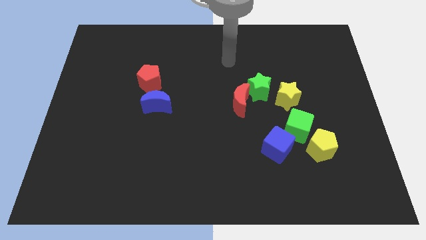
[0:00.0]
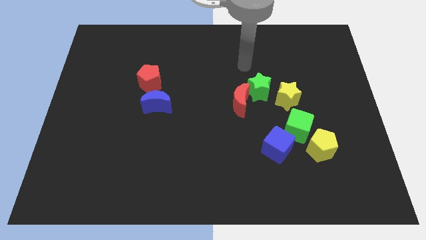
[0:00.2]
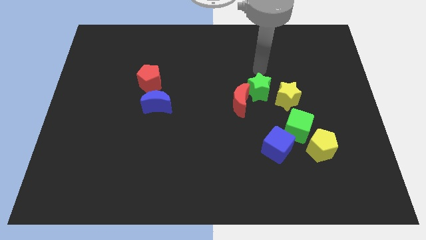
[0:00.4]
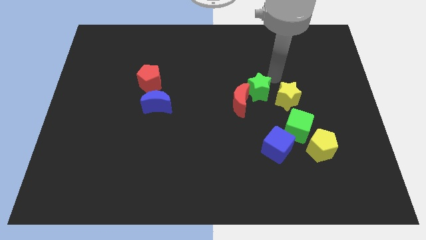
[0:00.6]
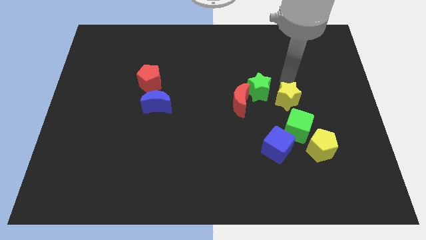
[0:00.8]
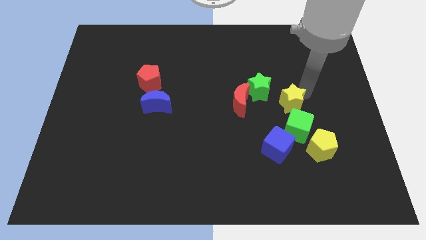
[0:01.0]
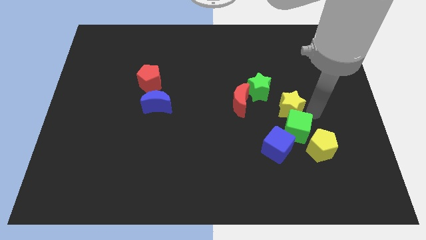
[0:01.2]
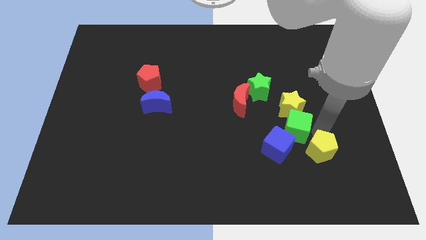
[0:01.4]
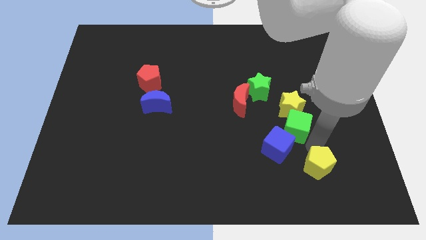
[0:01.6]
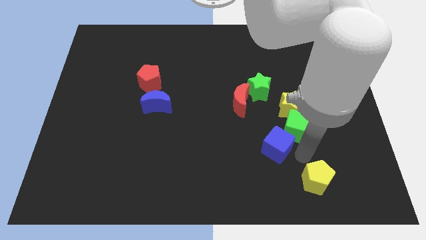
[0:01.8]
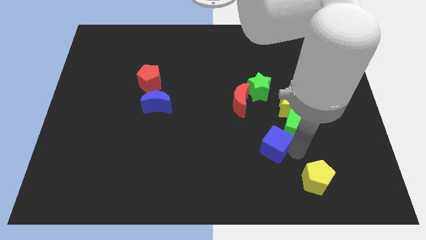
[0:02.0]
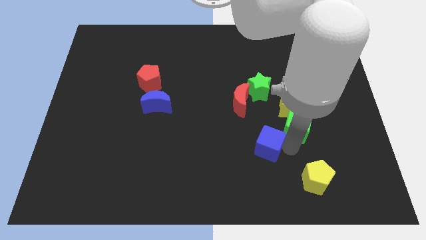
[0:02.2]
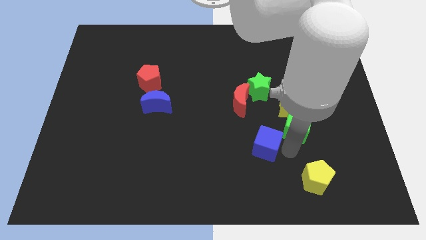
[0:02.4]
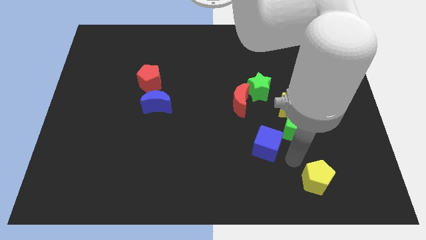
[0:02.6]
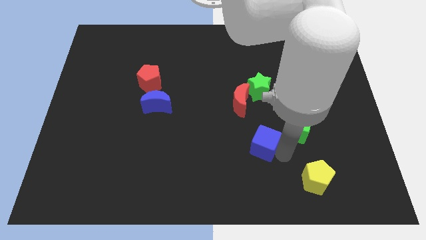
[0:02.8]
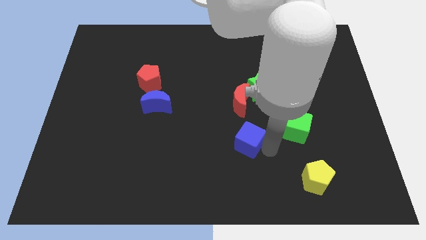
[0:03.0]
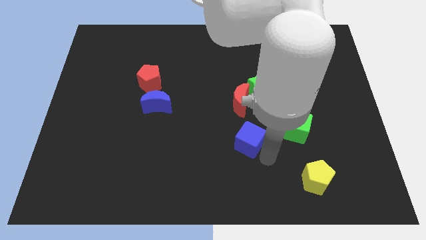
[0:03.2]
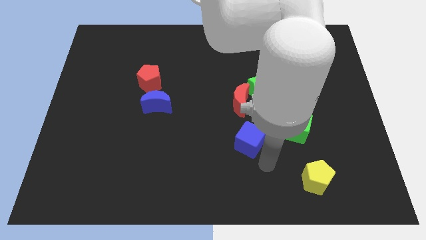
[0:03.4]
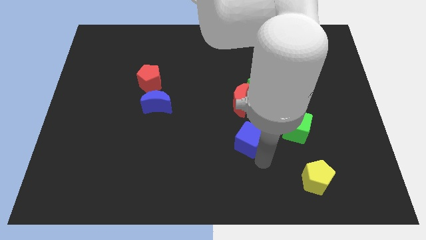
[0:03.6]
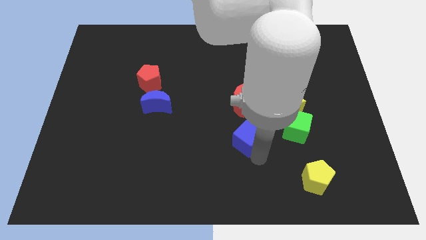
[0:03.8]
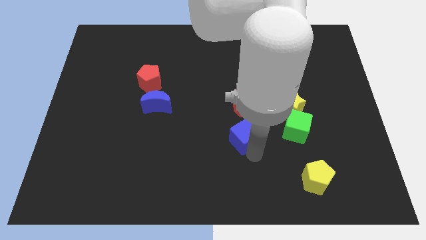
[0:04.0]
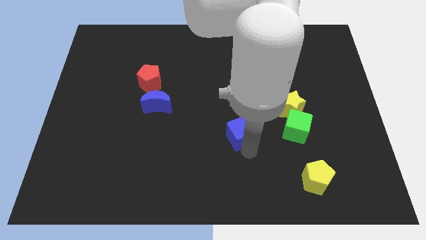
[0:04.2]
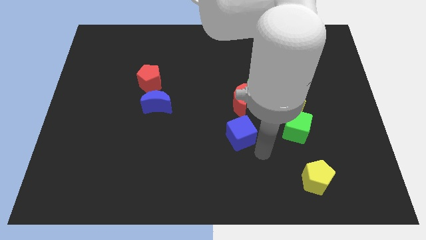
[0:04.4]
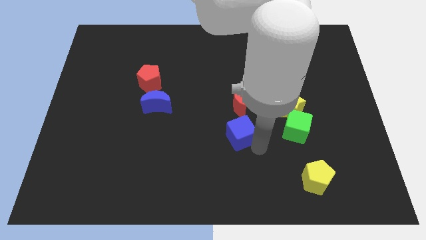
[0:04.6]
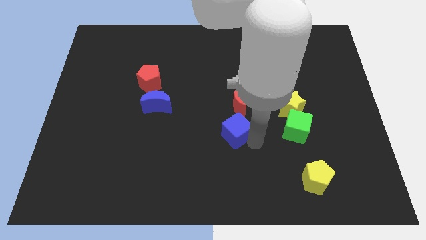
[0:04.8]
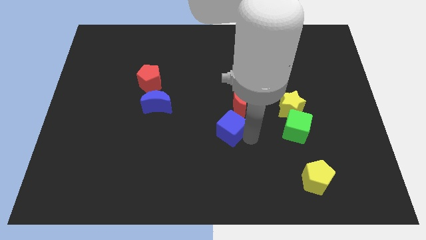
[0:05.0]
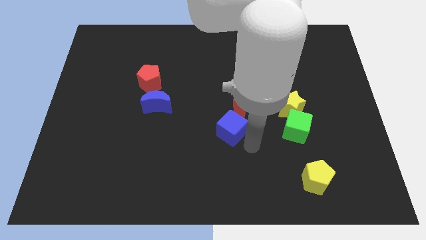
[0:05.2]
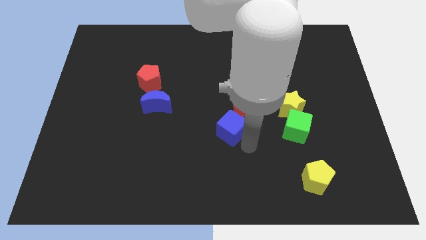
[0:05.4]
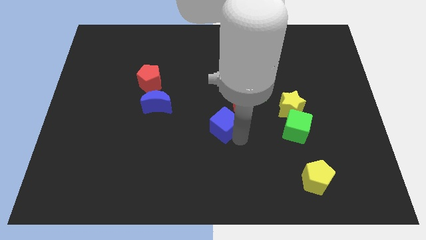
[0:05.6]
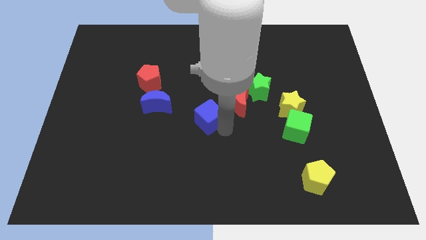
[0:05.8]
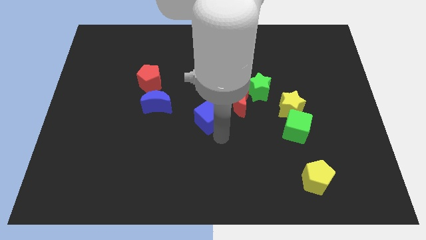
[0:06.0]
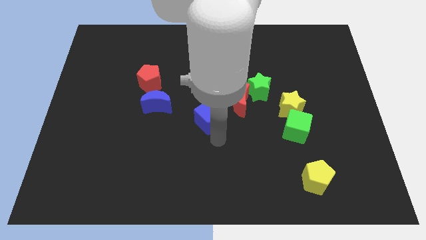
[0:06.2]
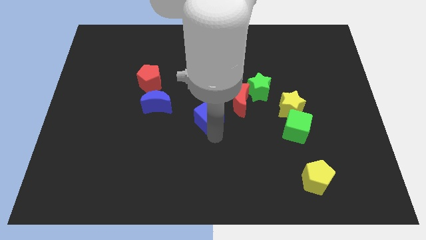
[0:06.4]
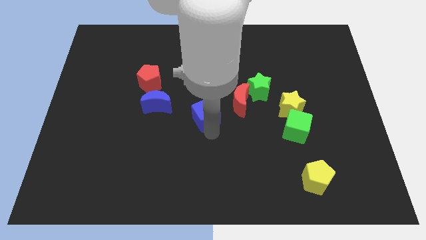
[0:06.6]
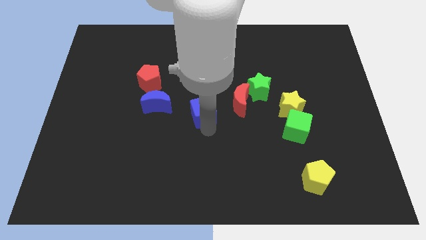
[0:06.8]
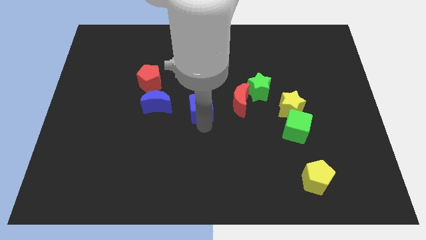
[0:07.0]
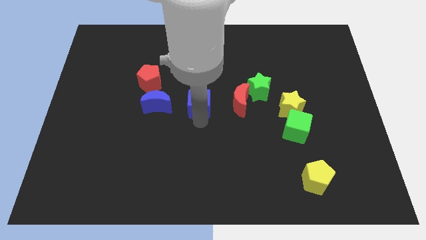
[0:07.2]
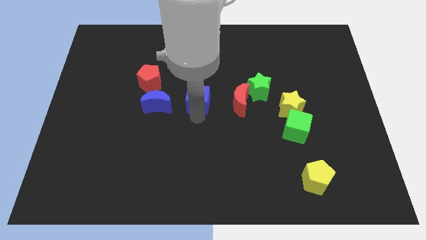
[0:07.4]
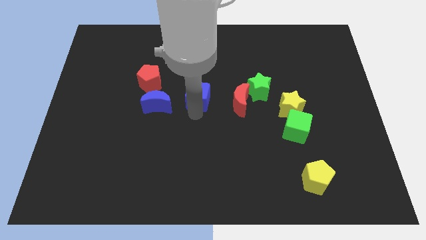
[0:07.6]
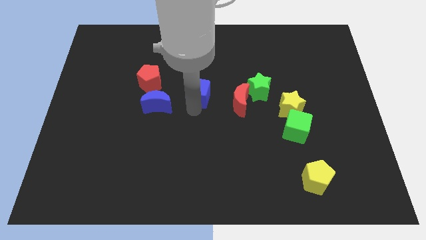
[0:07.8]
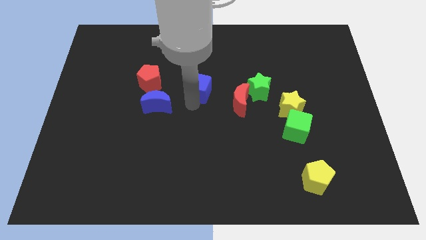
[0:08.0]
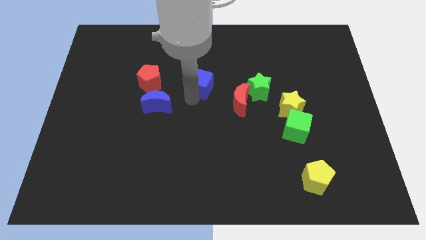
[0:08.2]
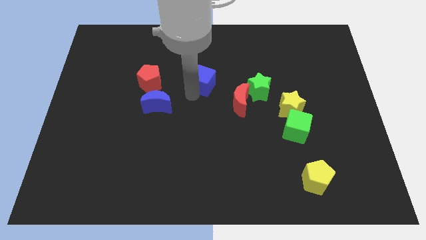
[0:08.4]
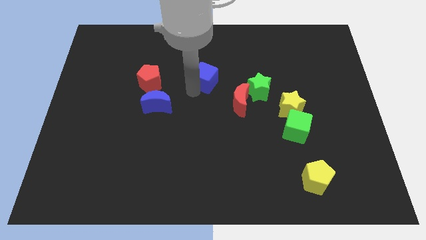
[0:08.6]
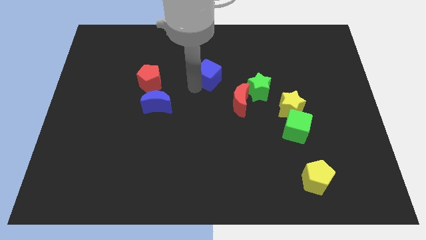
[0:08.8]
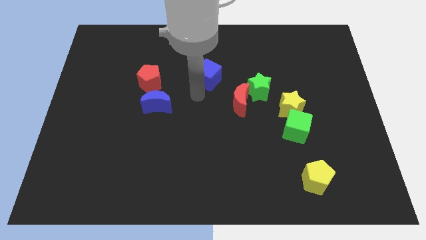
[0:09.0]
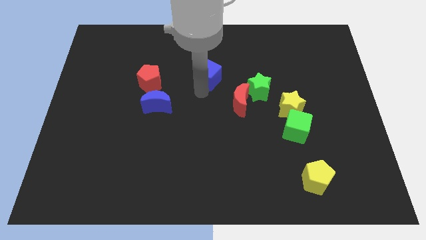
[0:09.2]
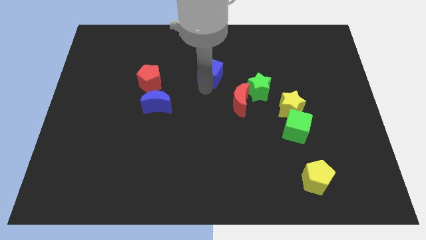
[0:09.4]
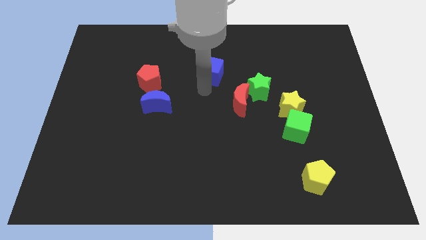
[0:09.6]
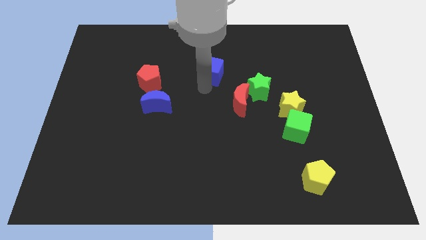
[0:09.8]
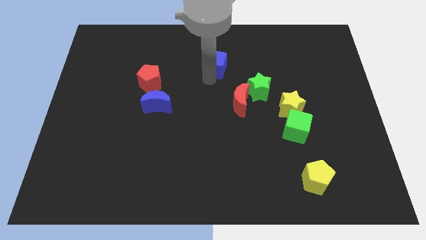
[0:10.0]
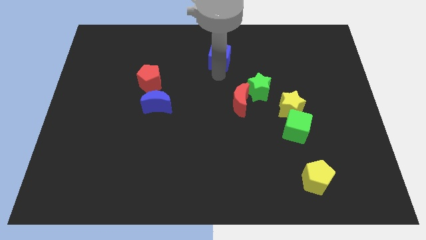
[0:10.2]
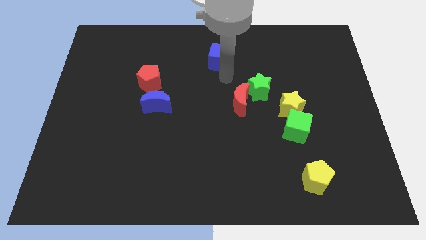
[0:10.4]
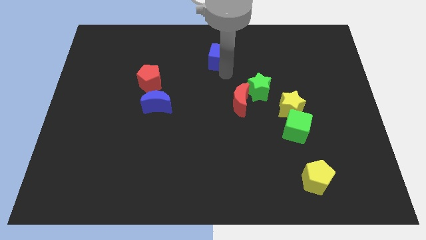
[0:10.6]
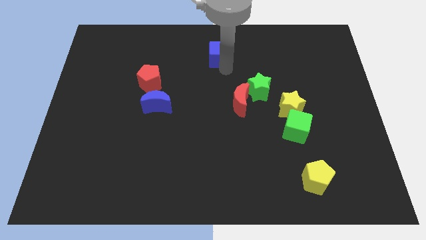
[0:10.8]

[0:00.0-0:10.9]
push the blue cube to the top side
